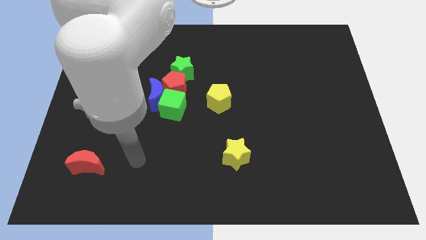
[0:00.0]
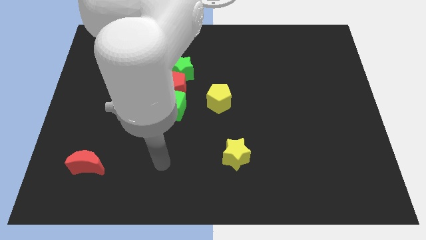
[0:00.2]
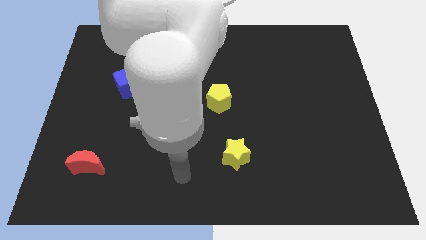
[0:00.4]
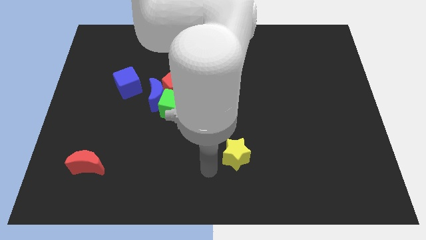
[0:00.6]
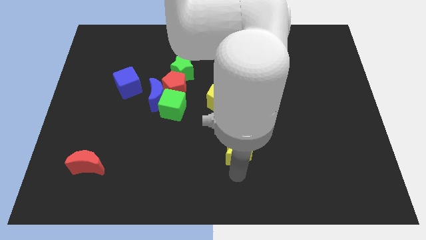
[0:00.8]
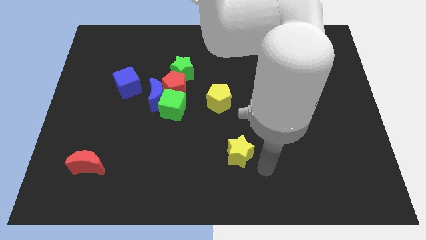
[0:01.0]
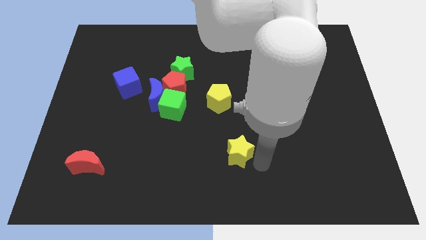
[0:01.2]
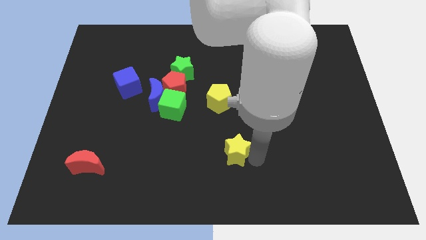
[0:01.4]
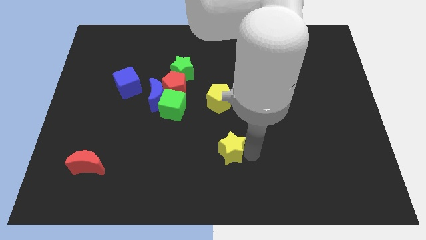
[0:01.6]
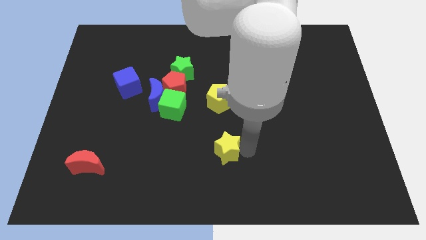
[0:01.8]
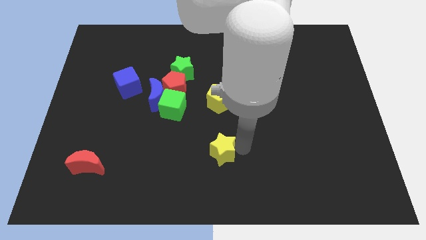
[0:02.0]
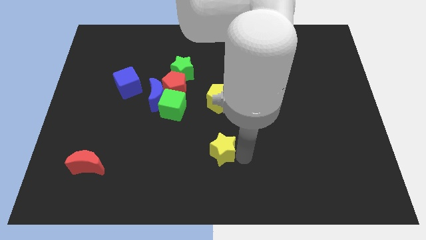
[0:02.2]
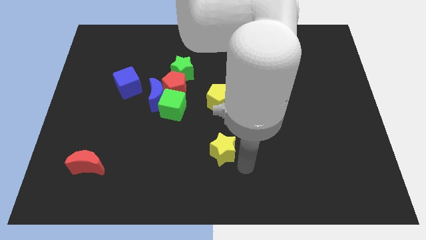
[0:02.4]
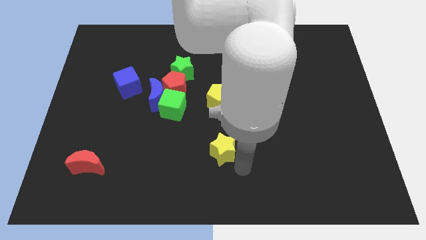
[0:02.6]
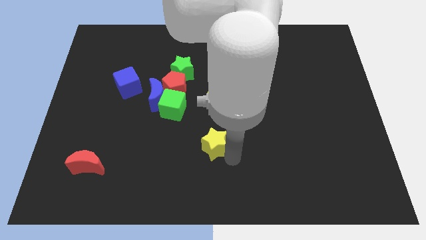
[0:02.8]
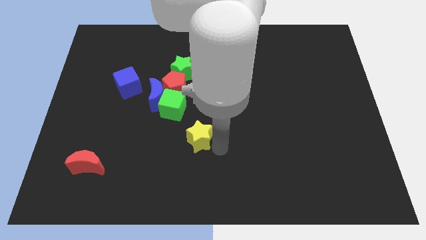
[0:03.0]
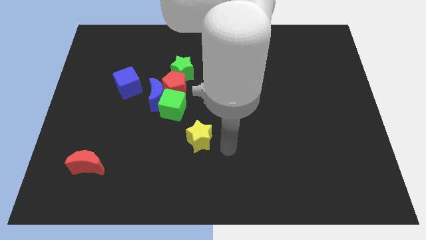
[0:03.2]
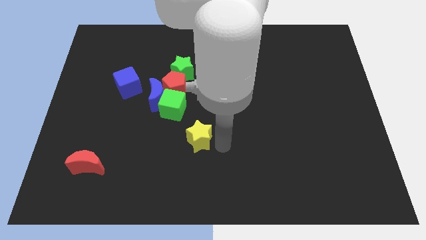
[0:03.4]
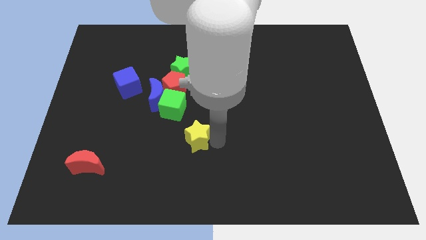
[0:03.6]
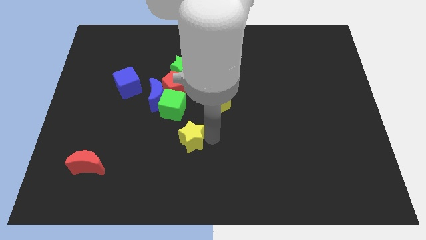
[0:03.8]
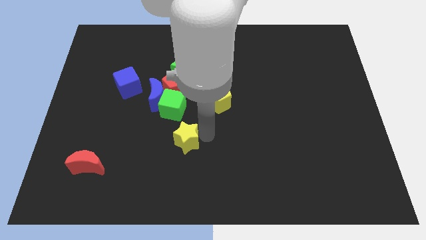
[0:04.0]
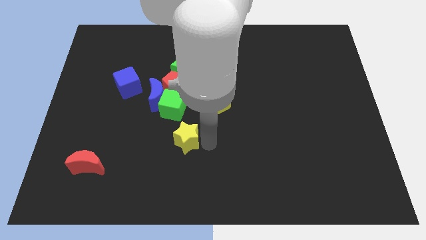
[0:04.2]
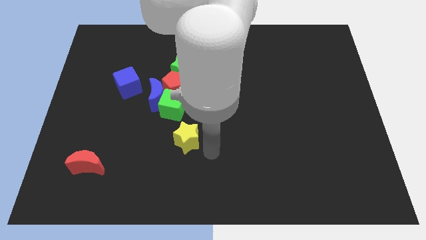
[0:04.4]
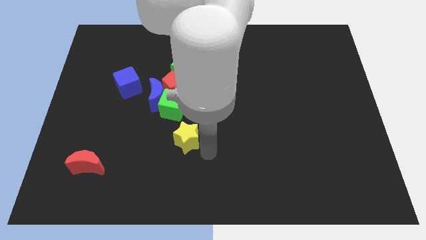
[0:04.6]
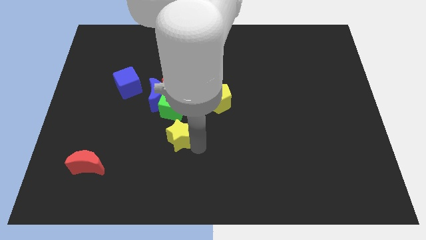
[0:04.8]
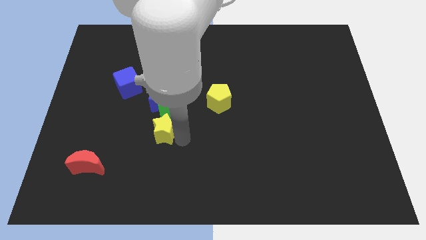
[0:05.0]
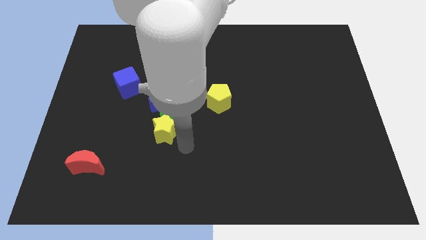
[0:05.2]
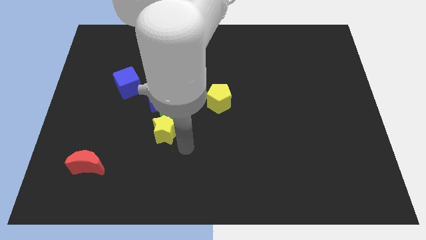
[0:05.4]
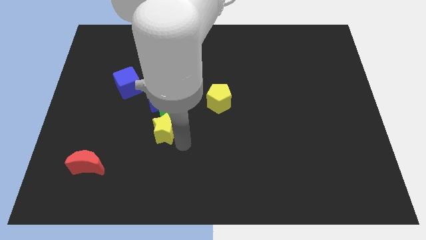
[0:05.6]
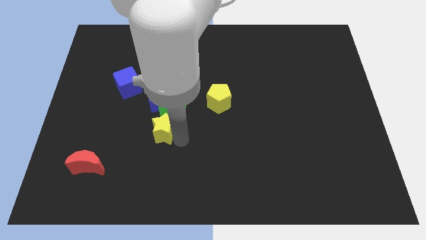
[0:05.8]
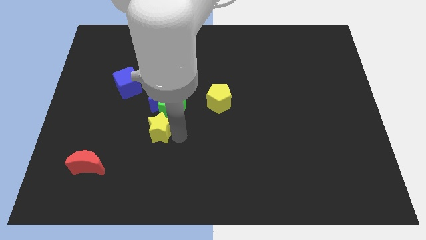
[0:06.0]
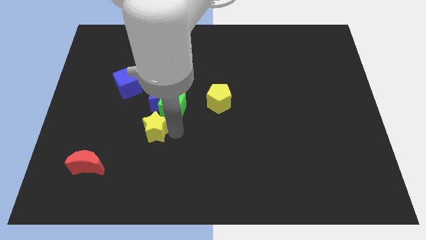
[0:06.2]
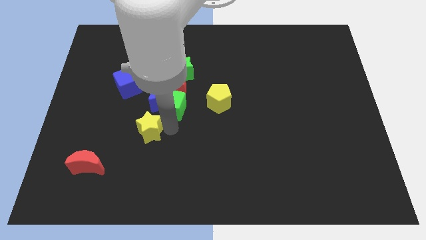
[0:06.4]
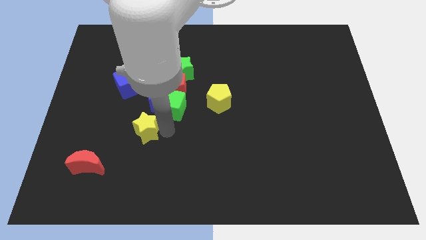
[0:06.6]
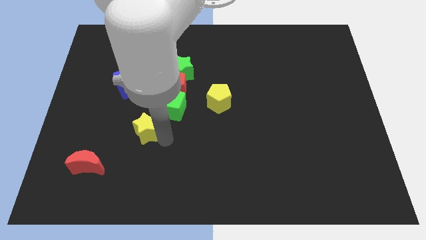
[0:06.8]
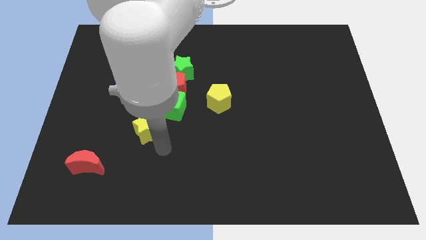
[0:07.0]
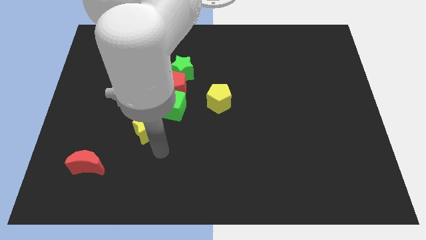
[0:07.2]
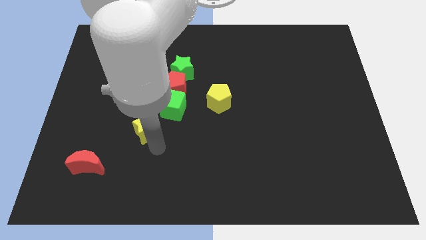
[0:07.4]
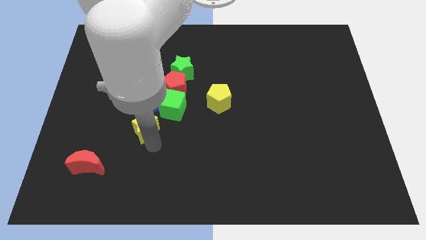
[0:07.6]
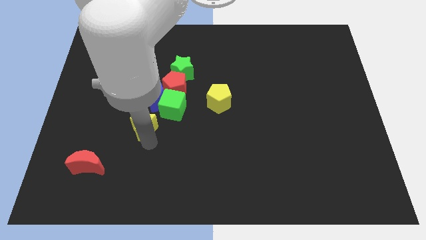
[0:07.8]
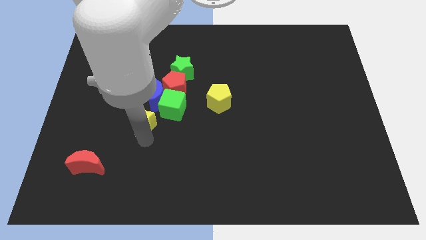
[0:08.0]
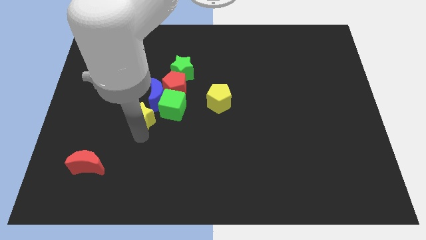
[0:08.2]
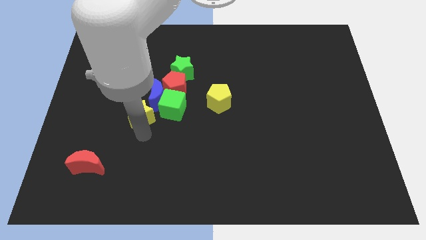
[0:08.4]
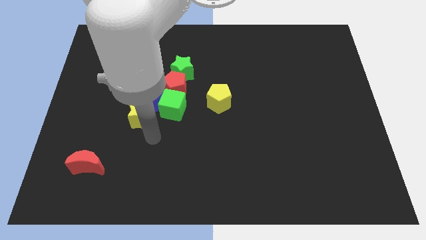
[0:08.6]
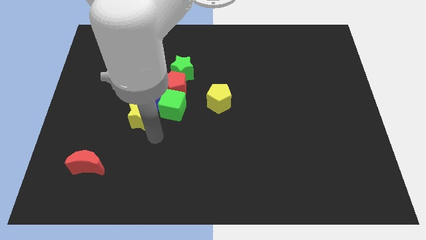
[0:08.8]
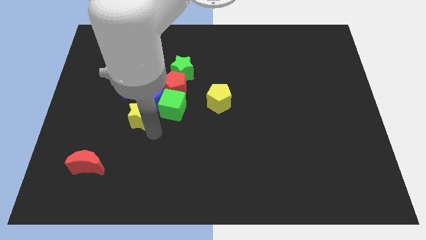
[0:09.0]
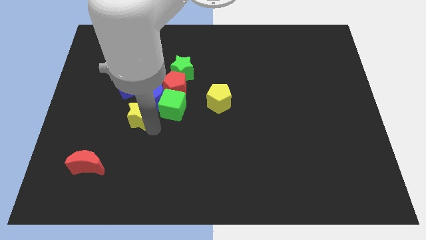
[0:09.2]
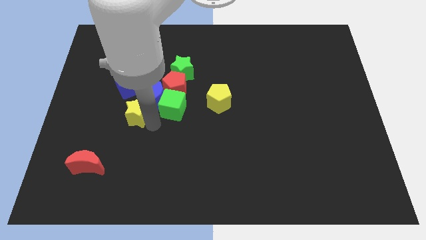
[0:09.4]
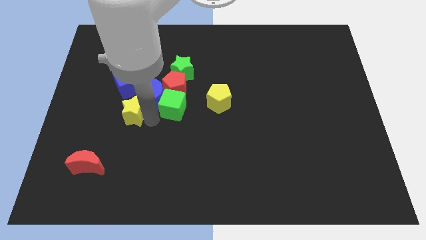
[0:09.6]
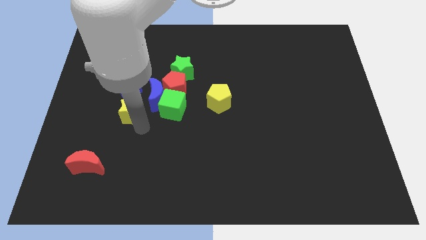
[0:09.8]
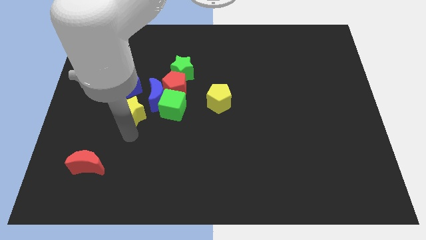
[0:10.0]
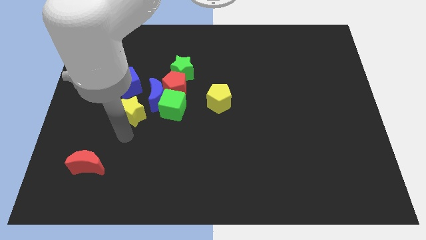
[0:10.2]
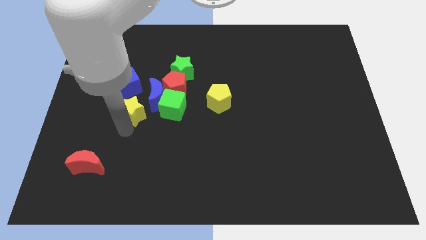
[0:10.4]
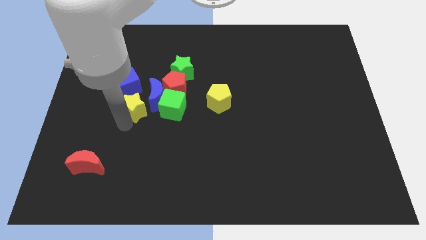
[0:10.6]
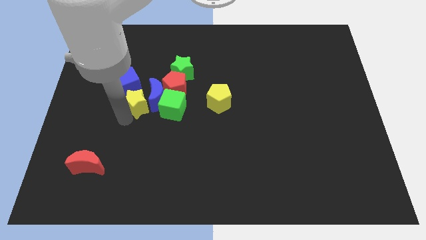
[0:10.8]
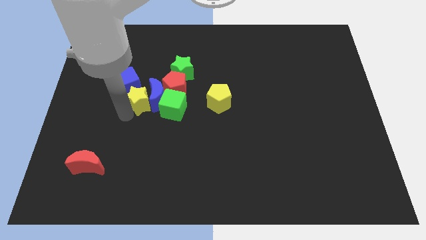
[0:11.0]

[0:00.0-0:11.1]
put the yellow star diagonally up and to the left of the blue moon

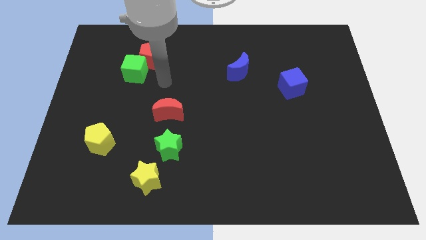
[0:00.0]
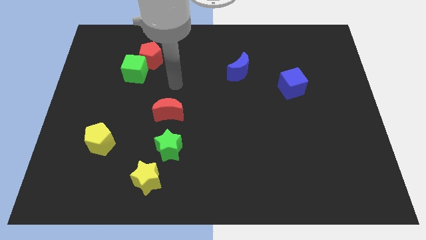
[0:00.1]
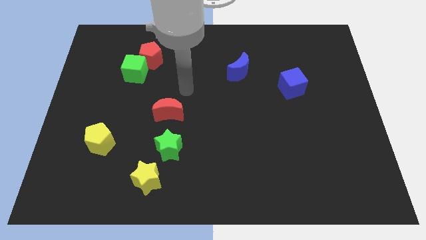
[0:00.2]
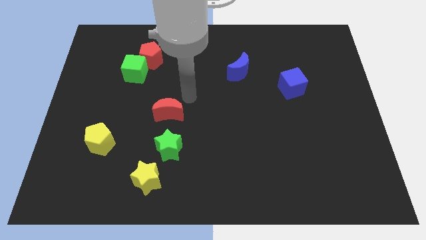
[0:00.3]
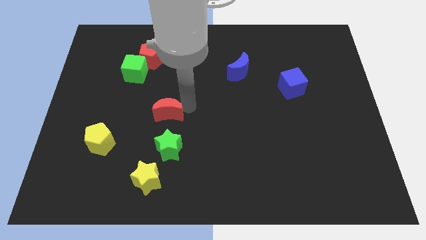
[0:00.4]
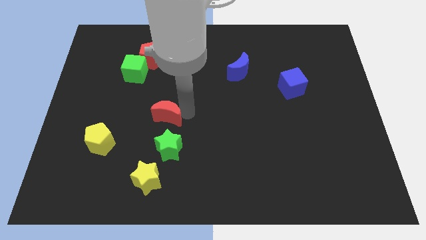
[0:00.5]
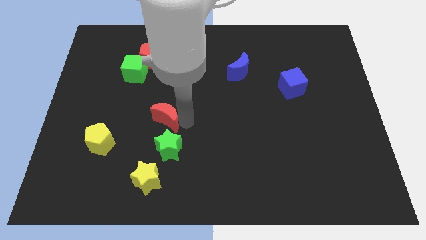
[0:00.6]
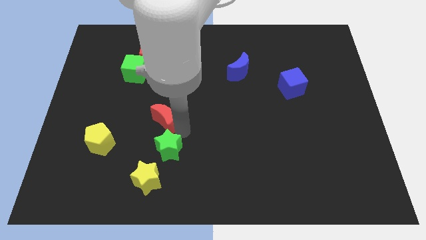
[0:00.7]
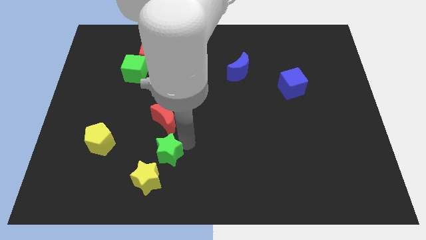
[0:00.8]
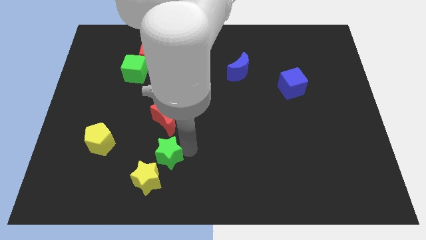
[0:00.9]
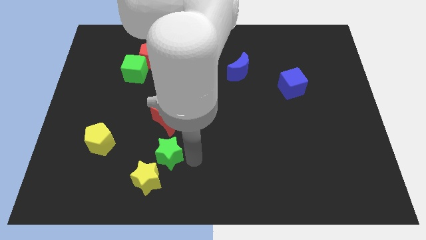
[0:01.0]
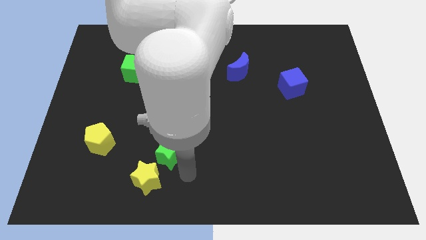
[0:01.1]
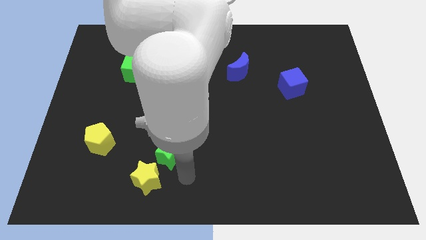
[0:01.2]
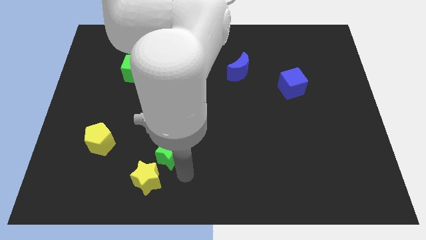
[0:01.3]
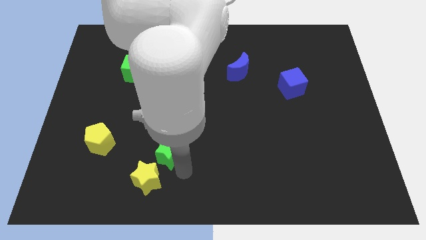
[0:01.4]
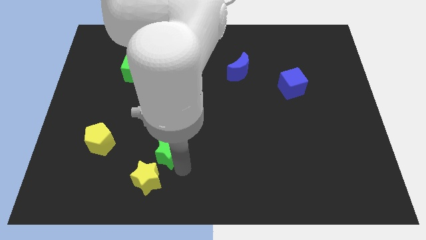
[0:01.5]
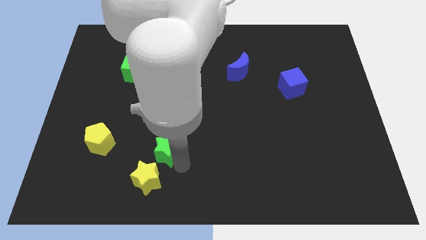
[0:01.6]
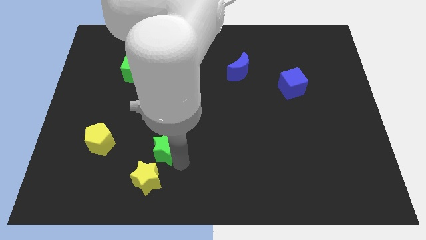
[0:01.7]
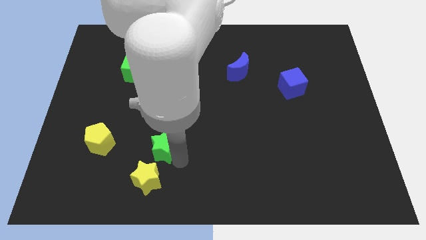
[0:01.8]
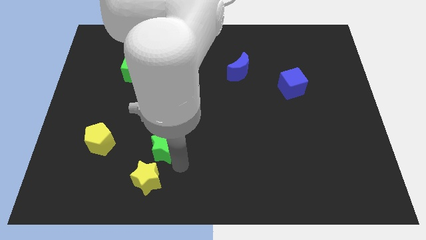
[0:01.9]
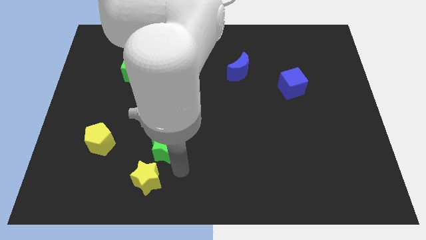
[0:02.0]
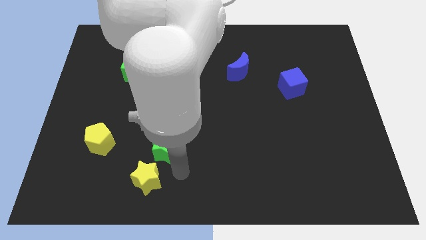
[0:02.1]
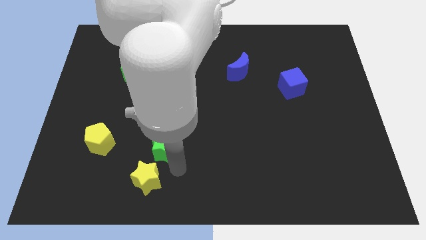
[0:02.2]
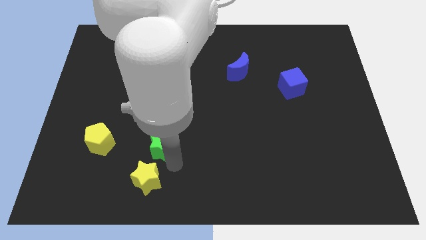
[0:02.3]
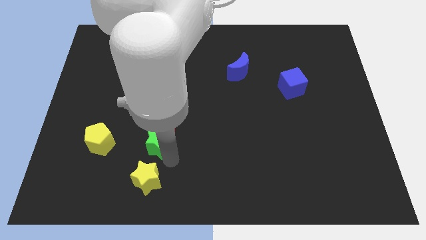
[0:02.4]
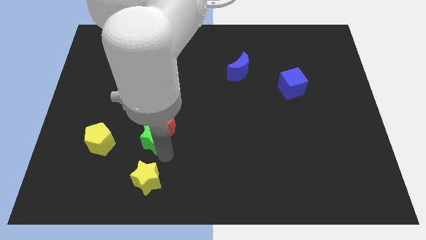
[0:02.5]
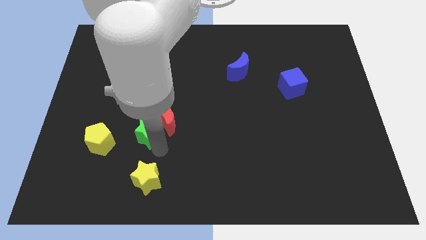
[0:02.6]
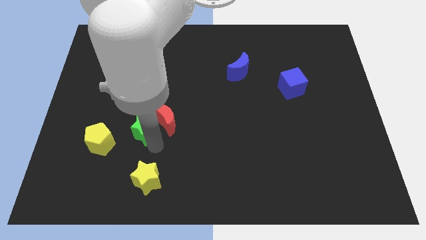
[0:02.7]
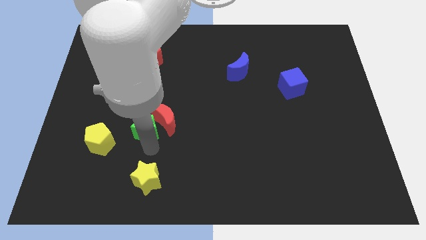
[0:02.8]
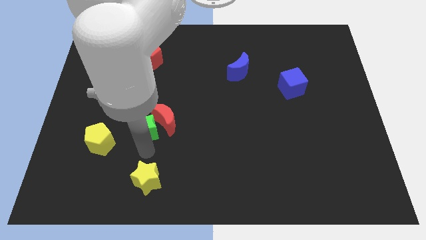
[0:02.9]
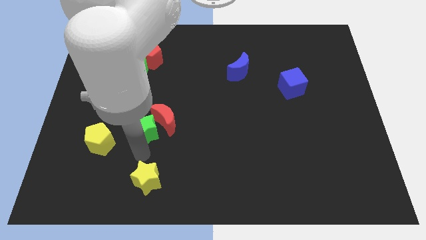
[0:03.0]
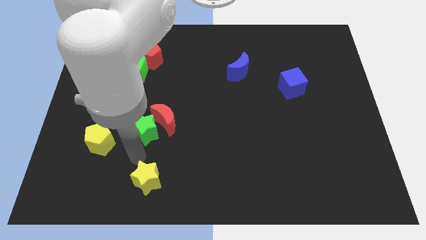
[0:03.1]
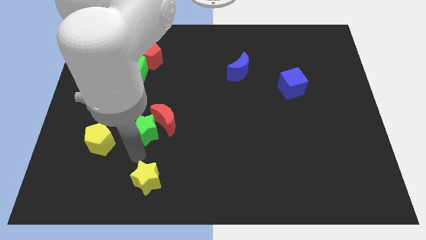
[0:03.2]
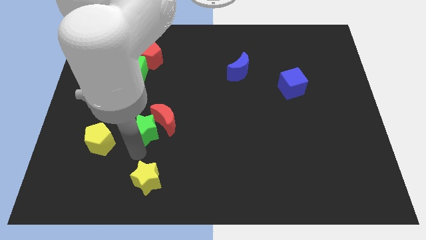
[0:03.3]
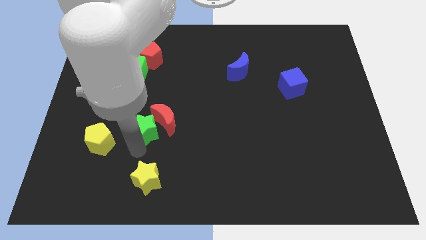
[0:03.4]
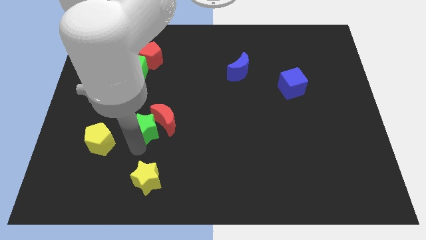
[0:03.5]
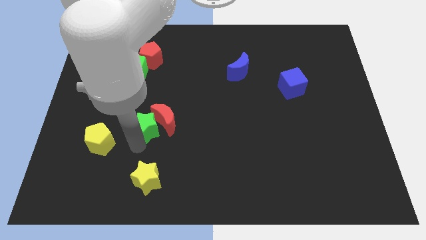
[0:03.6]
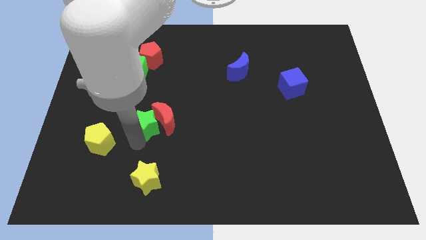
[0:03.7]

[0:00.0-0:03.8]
push the green star to the top left of the red moon
